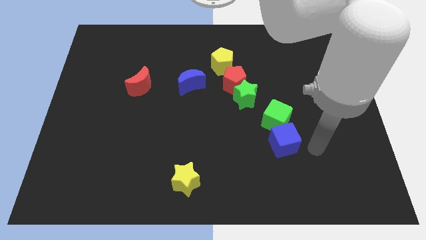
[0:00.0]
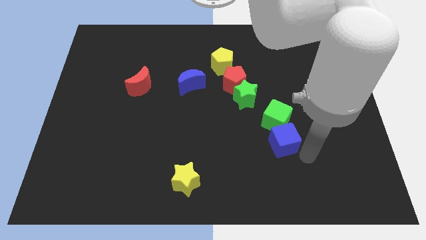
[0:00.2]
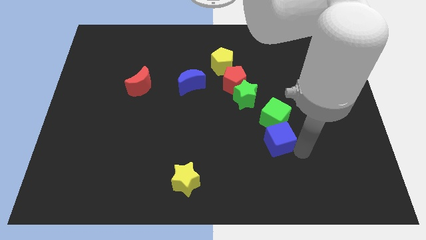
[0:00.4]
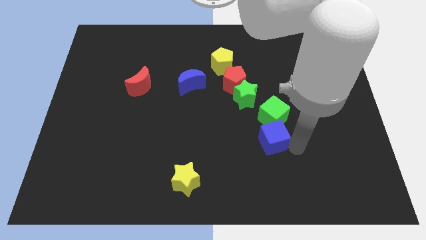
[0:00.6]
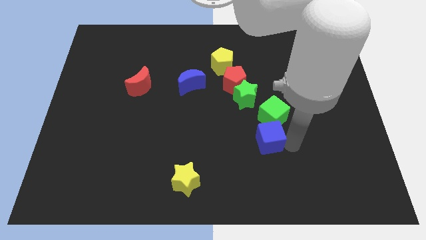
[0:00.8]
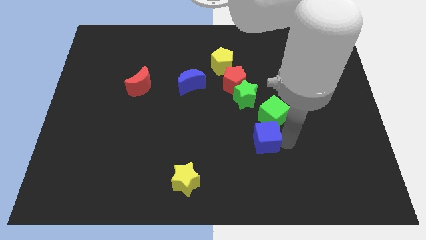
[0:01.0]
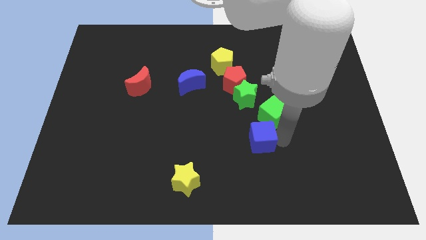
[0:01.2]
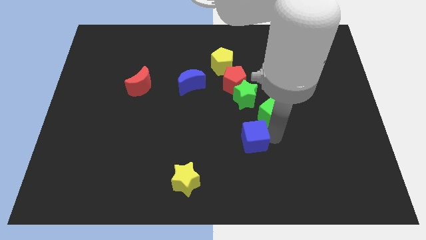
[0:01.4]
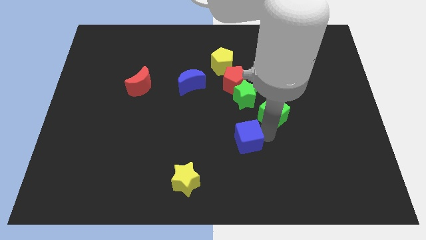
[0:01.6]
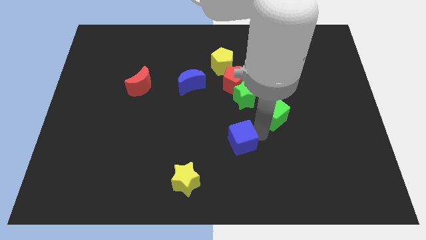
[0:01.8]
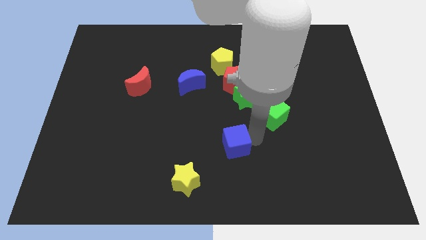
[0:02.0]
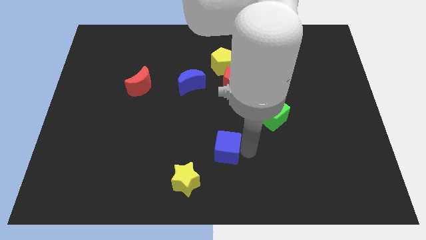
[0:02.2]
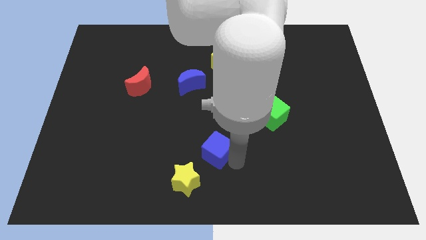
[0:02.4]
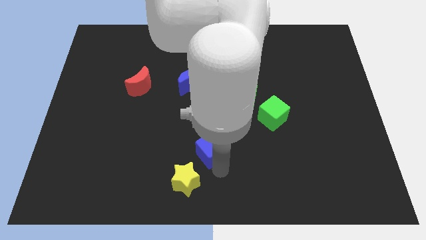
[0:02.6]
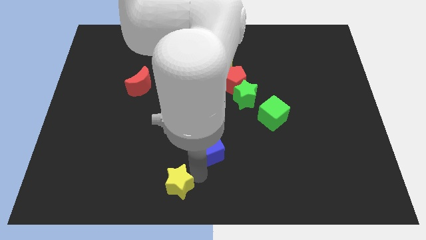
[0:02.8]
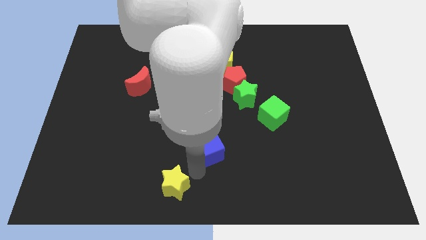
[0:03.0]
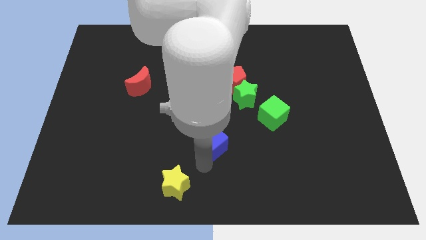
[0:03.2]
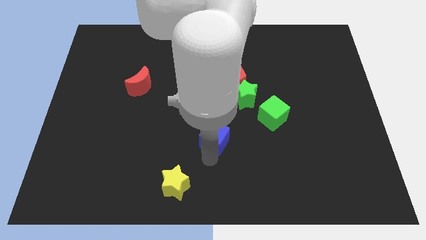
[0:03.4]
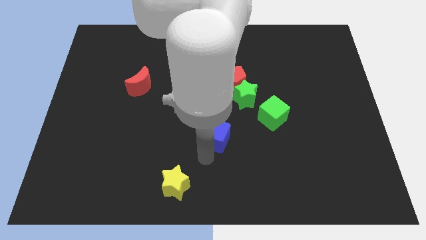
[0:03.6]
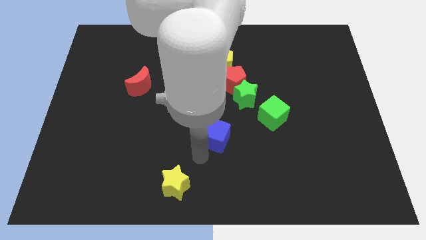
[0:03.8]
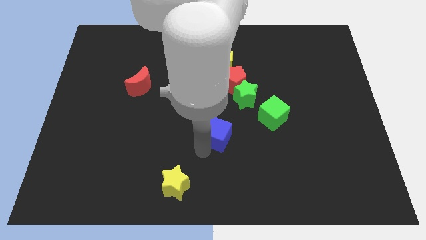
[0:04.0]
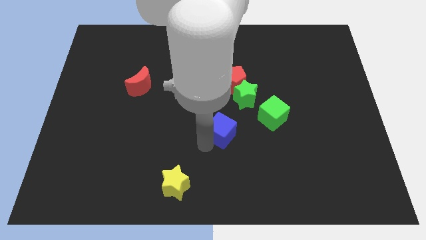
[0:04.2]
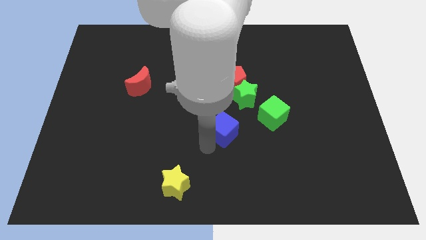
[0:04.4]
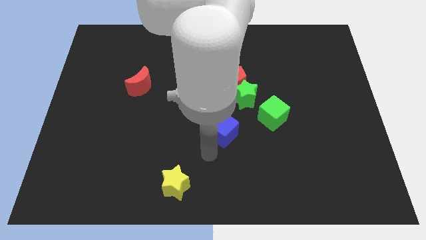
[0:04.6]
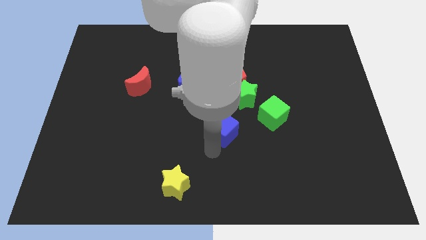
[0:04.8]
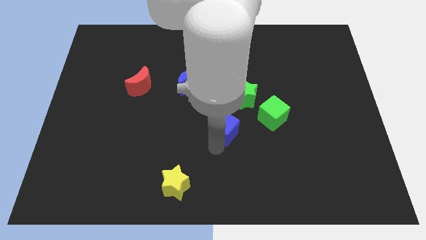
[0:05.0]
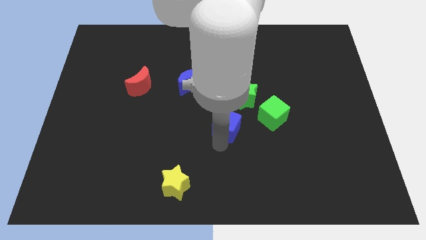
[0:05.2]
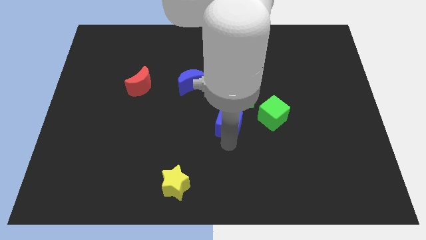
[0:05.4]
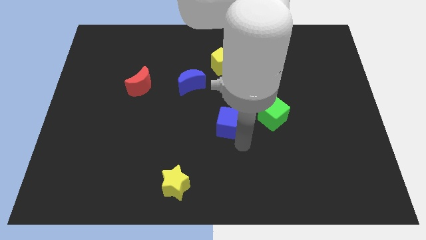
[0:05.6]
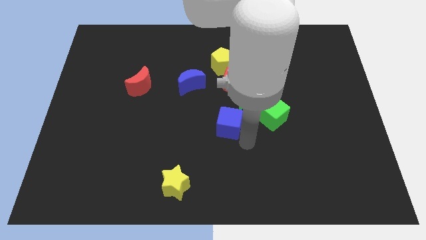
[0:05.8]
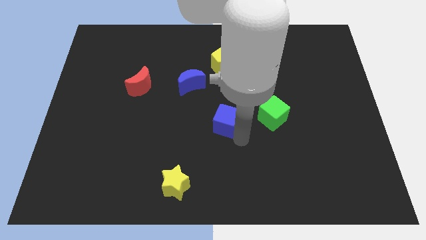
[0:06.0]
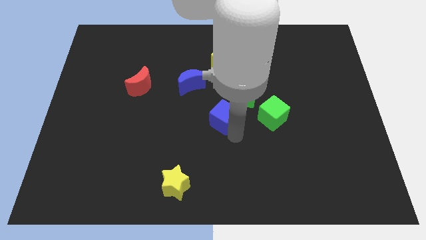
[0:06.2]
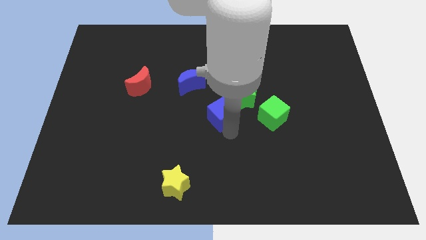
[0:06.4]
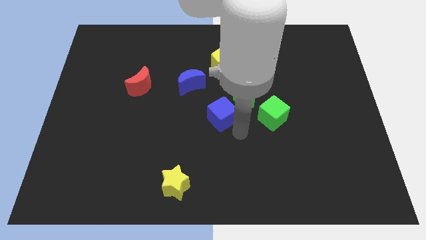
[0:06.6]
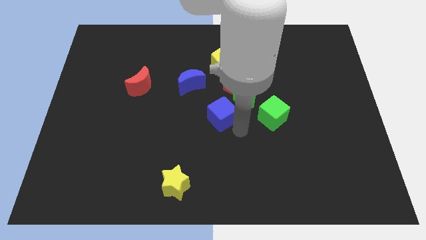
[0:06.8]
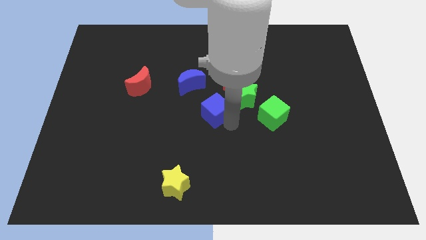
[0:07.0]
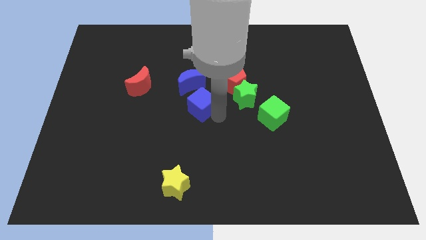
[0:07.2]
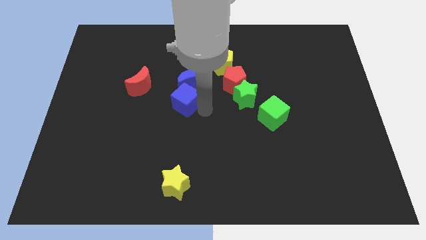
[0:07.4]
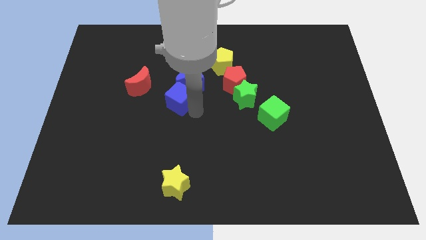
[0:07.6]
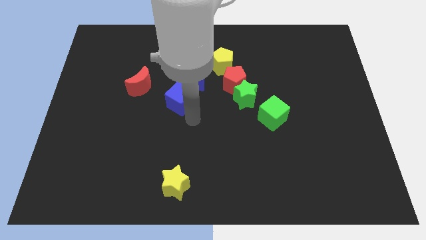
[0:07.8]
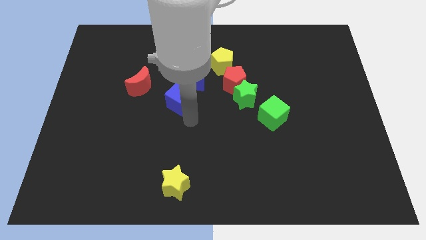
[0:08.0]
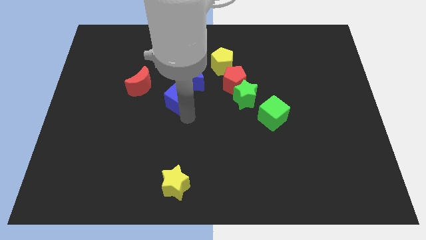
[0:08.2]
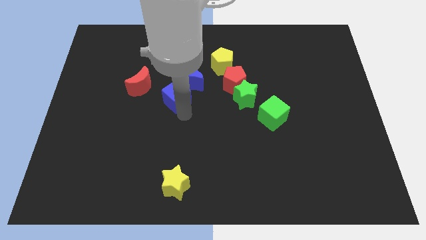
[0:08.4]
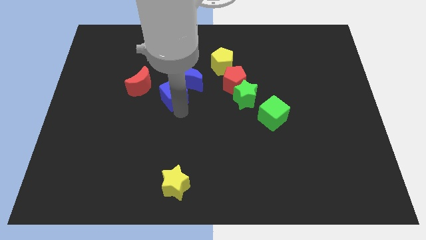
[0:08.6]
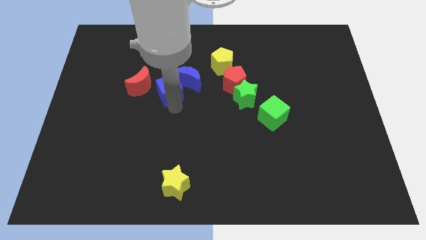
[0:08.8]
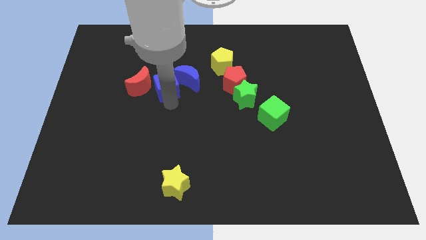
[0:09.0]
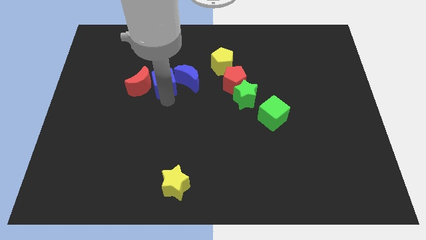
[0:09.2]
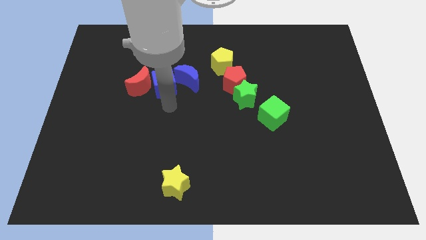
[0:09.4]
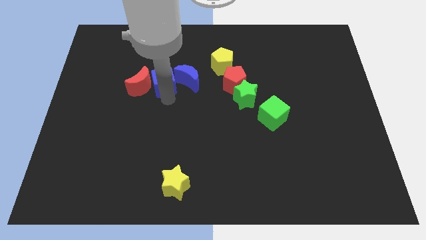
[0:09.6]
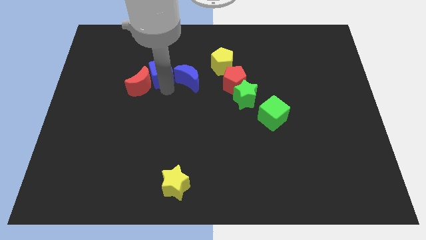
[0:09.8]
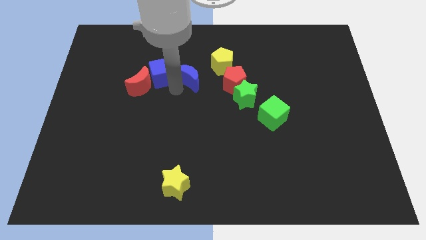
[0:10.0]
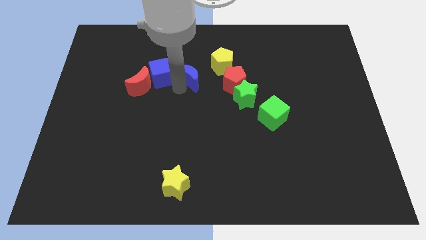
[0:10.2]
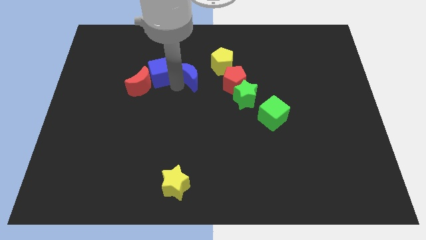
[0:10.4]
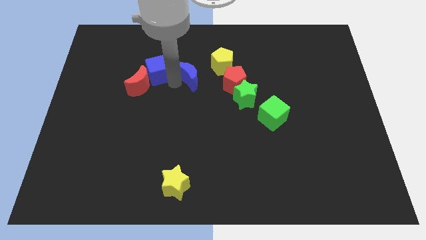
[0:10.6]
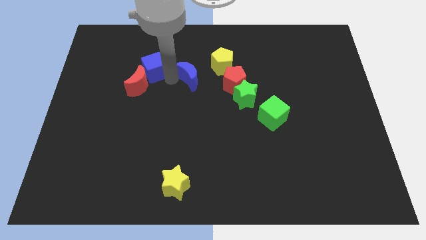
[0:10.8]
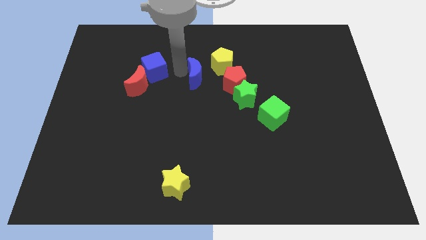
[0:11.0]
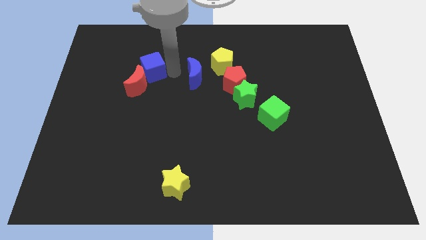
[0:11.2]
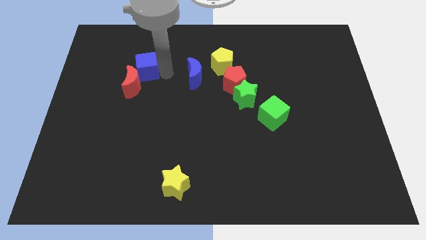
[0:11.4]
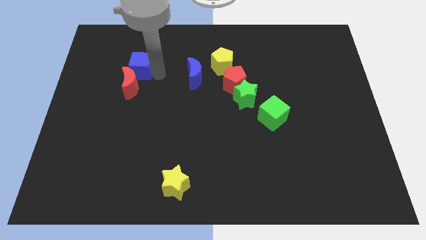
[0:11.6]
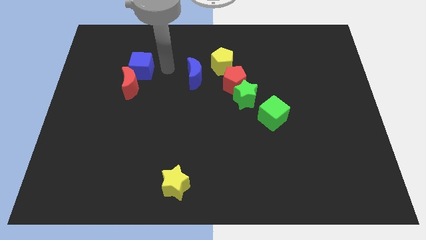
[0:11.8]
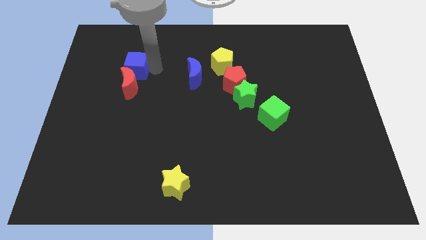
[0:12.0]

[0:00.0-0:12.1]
put the blue cube diagonally up and to the left of the red moon

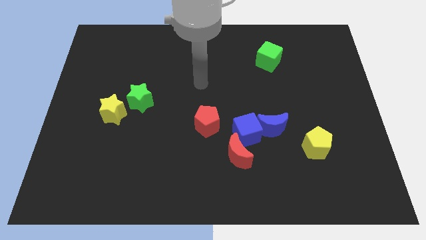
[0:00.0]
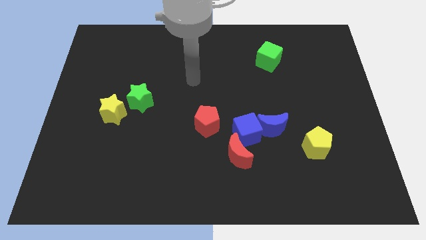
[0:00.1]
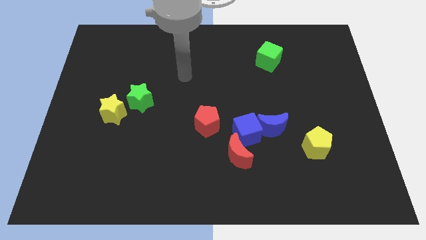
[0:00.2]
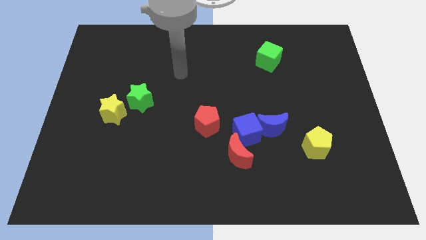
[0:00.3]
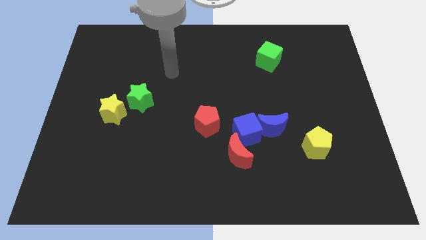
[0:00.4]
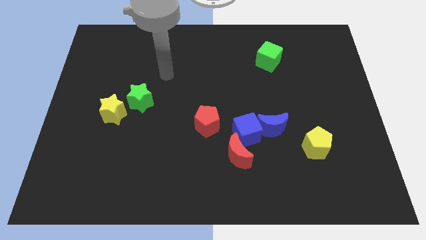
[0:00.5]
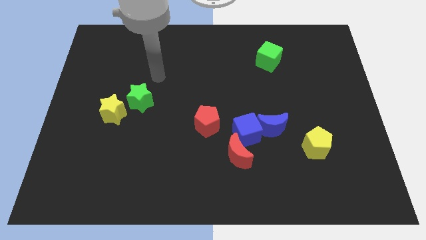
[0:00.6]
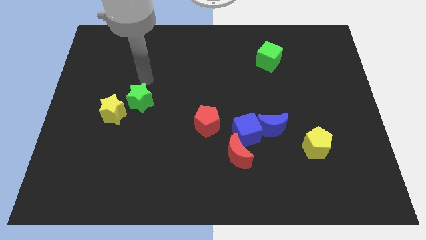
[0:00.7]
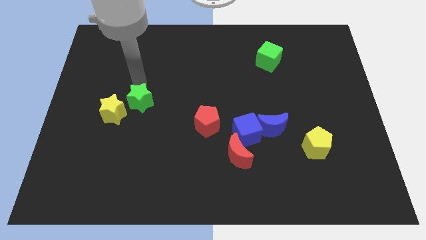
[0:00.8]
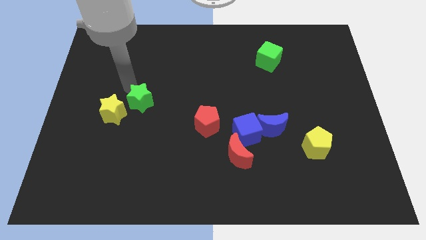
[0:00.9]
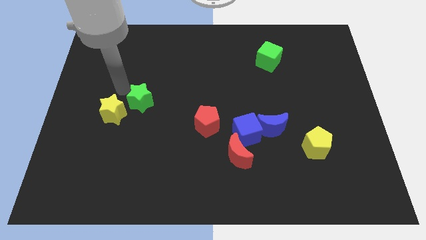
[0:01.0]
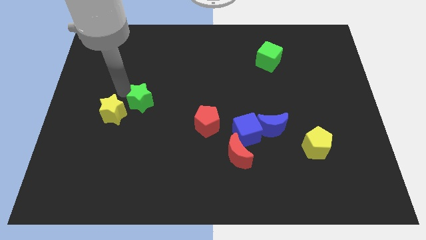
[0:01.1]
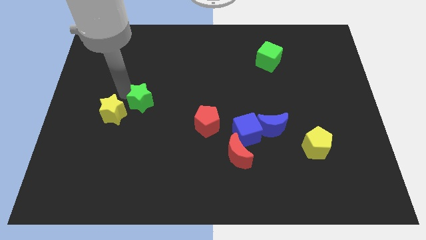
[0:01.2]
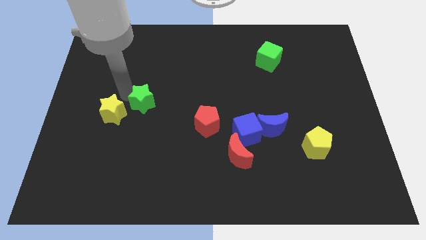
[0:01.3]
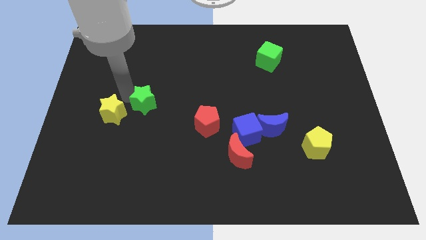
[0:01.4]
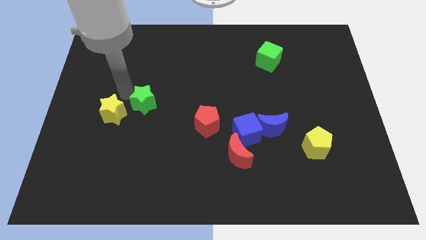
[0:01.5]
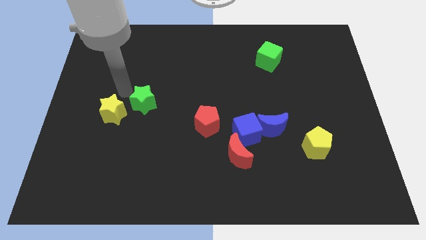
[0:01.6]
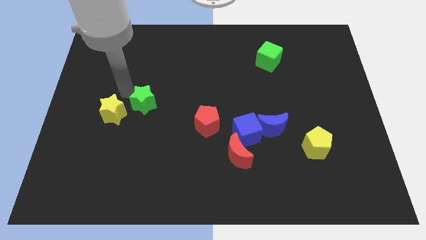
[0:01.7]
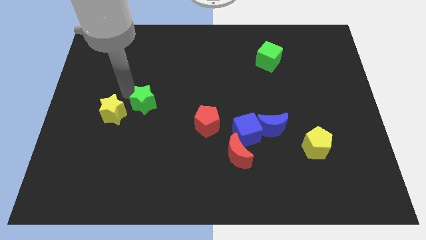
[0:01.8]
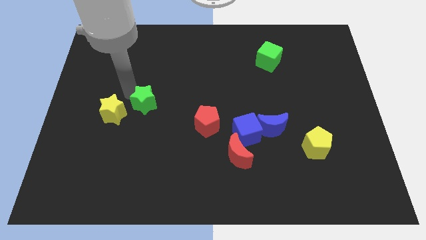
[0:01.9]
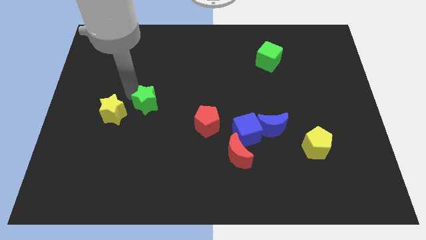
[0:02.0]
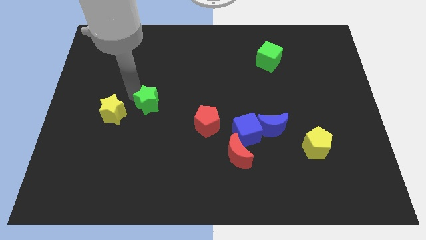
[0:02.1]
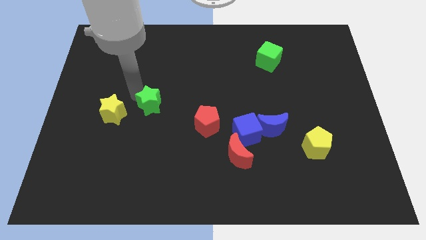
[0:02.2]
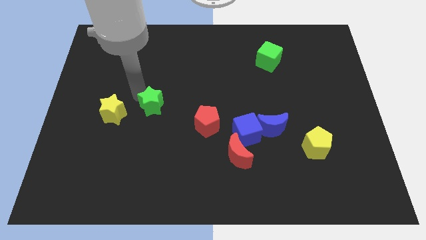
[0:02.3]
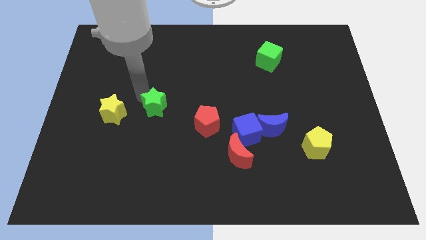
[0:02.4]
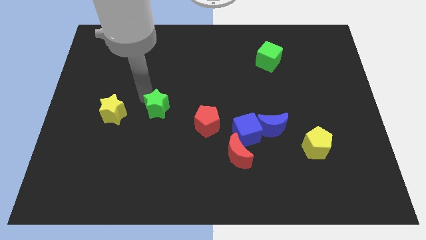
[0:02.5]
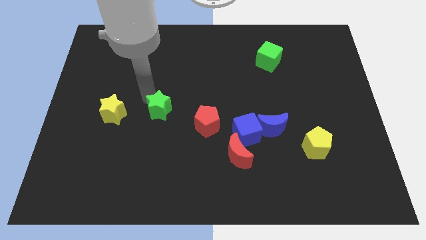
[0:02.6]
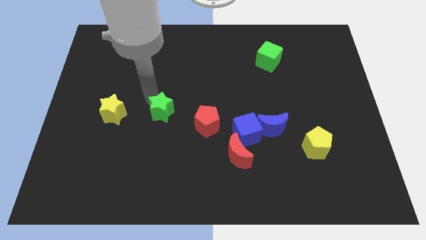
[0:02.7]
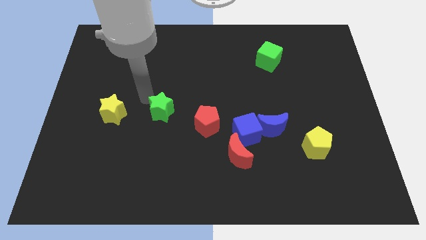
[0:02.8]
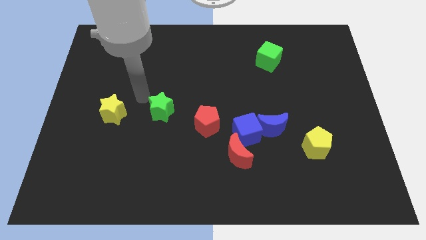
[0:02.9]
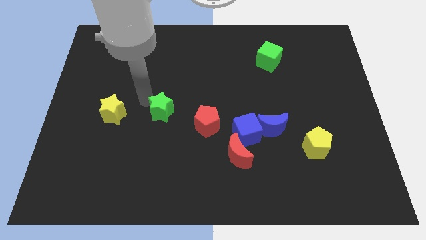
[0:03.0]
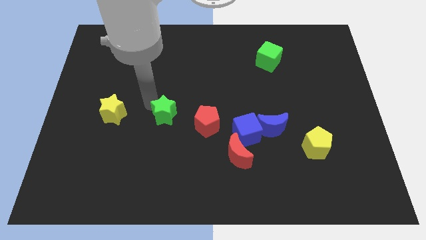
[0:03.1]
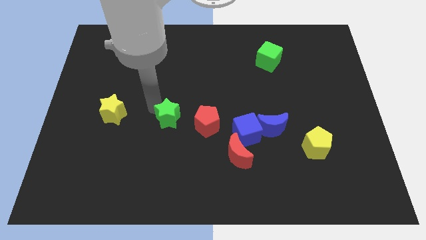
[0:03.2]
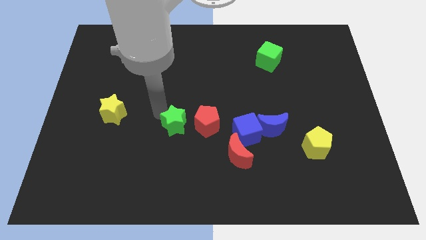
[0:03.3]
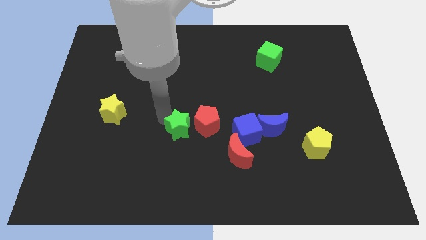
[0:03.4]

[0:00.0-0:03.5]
put the green star just left of the blue cube
